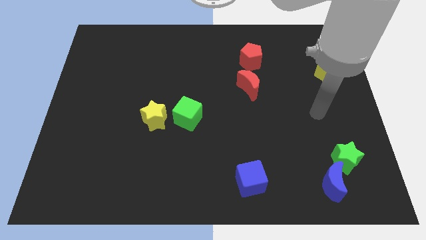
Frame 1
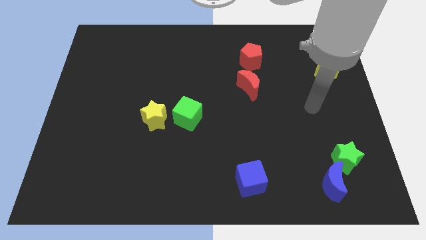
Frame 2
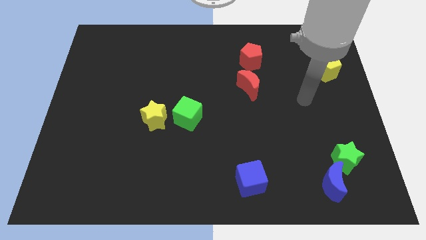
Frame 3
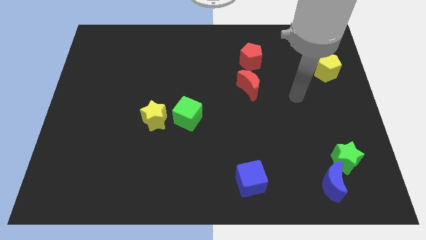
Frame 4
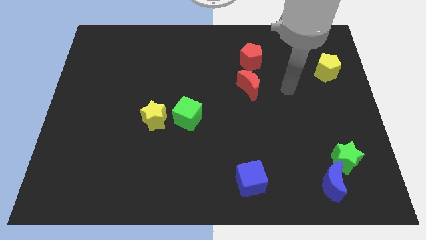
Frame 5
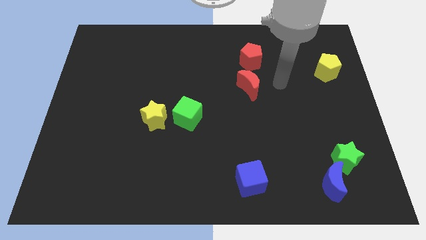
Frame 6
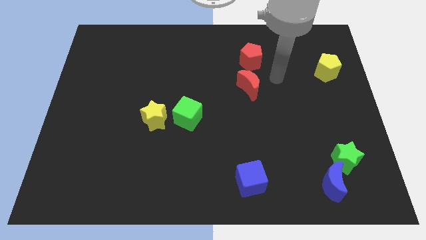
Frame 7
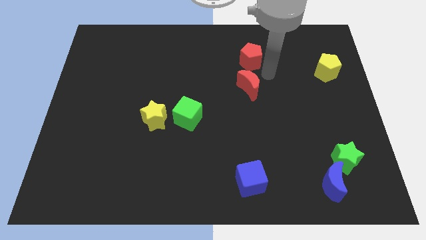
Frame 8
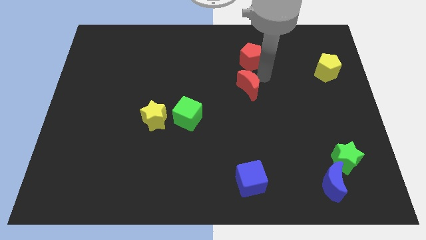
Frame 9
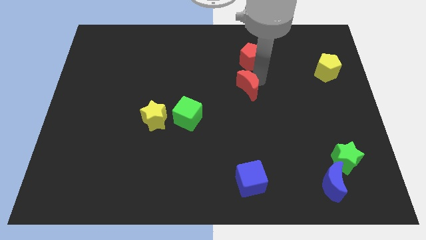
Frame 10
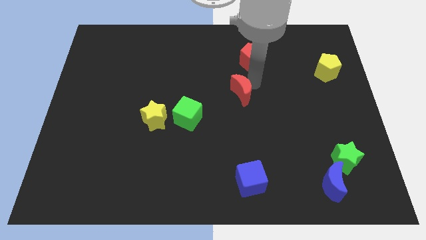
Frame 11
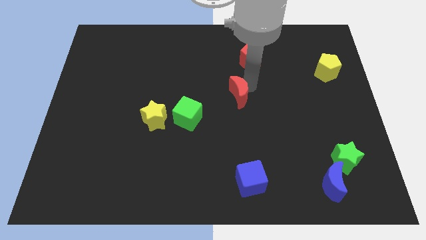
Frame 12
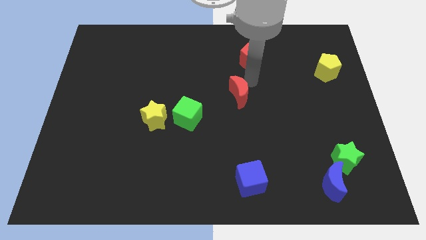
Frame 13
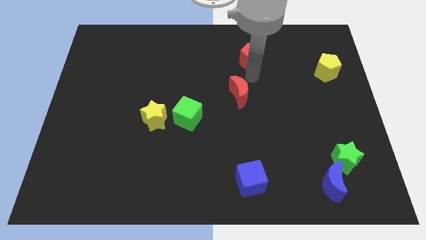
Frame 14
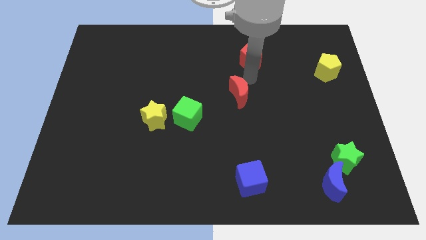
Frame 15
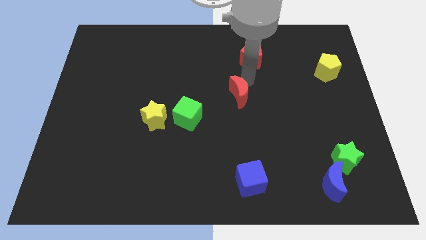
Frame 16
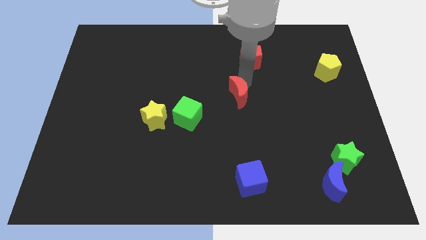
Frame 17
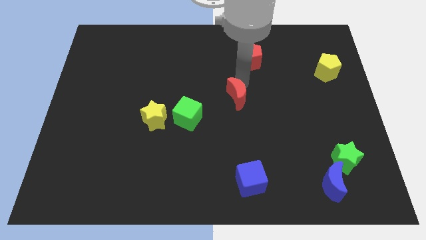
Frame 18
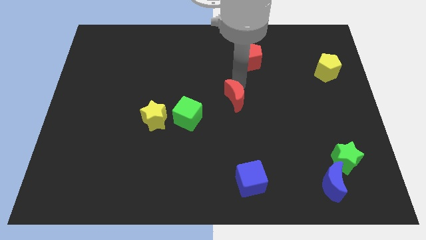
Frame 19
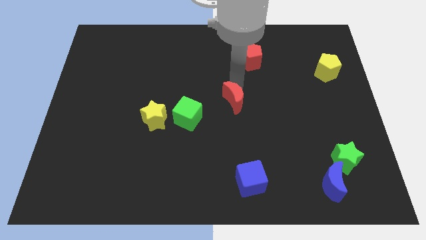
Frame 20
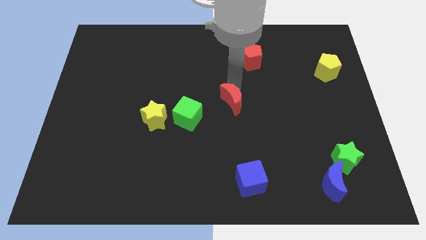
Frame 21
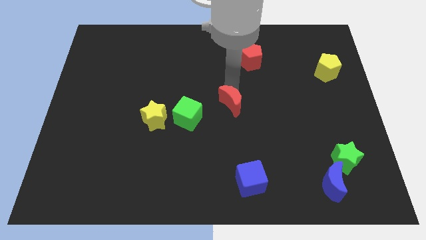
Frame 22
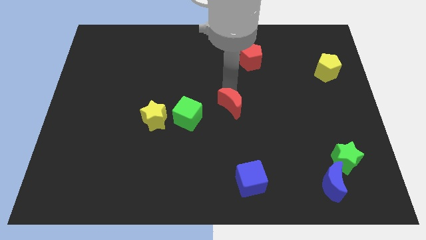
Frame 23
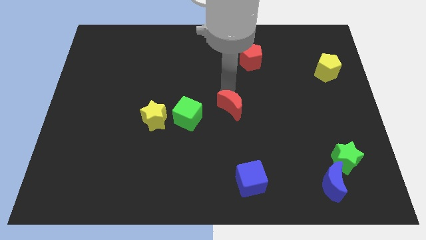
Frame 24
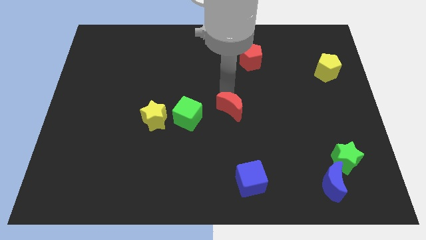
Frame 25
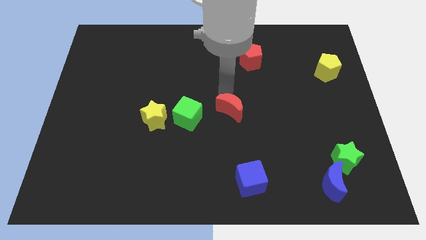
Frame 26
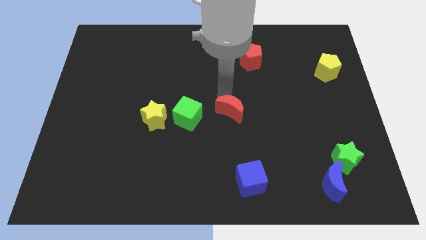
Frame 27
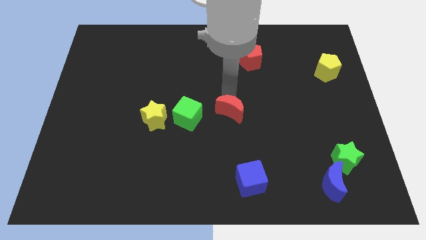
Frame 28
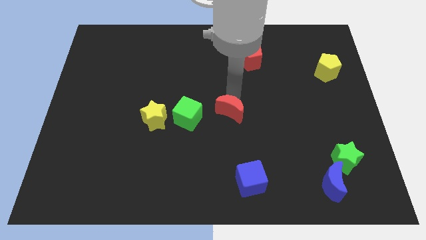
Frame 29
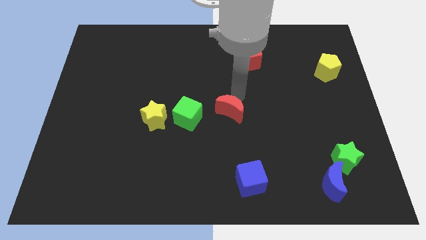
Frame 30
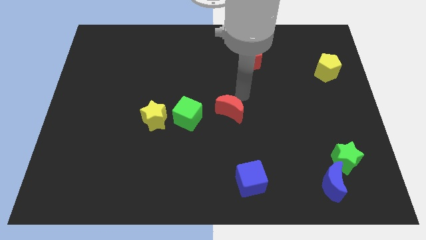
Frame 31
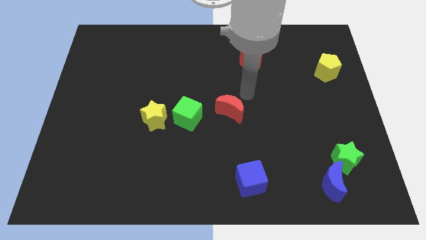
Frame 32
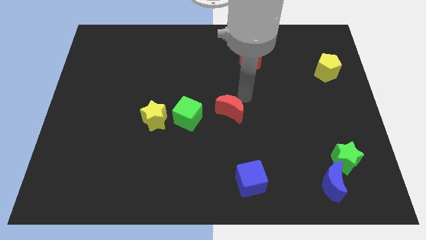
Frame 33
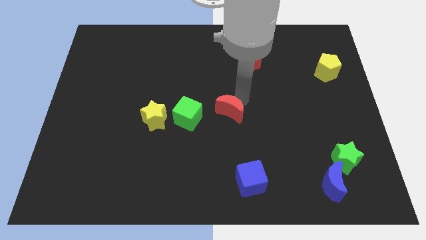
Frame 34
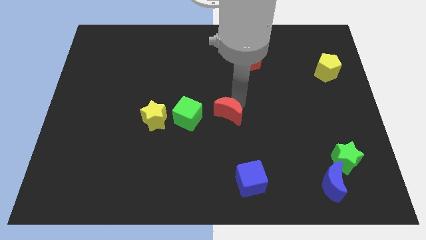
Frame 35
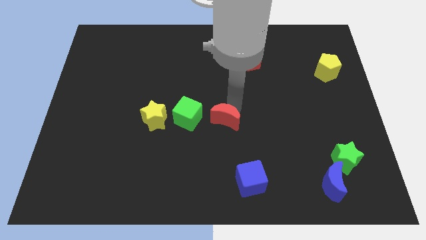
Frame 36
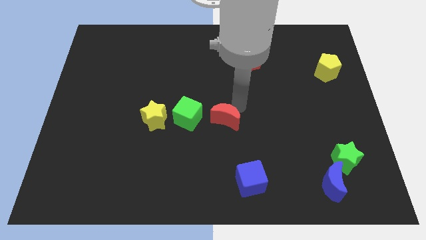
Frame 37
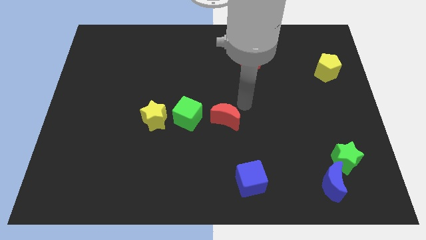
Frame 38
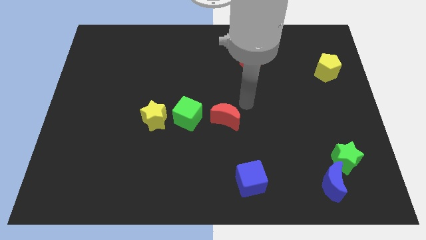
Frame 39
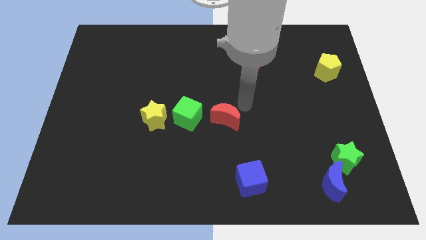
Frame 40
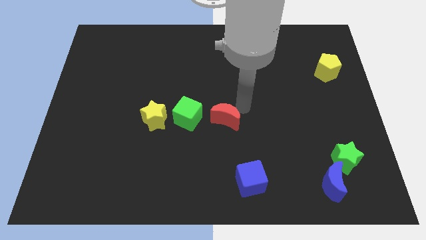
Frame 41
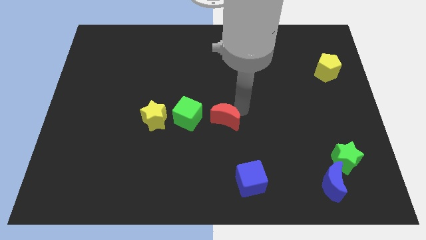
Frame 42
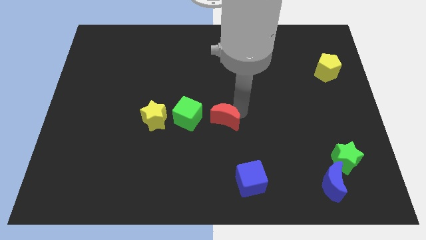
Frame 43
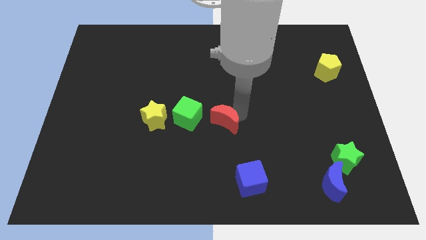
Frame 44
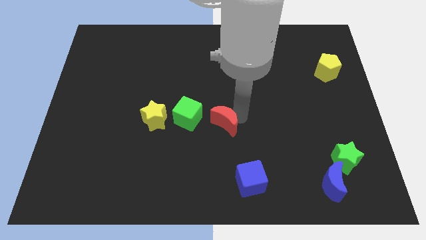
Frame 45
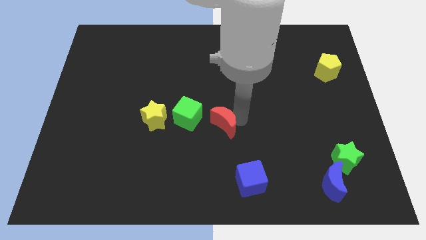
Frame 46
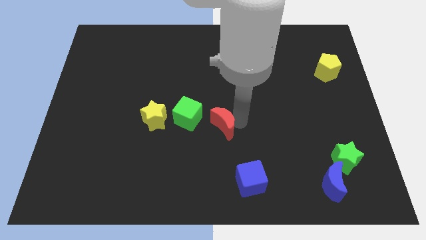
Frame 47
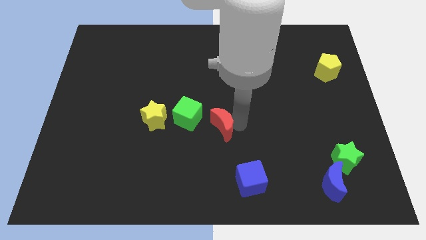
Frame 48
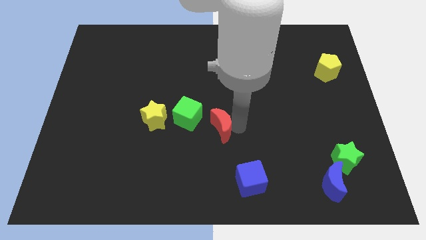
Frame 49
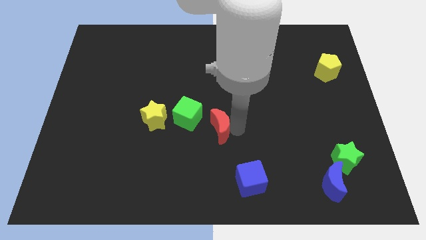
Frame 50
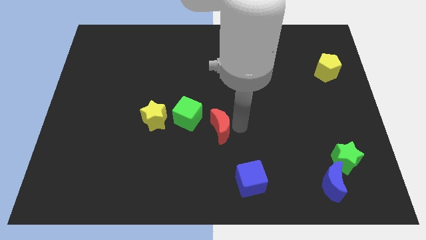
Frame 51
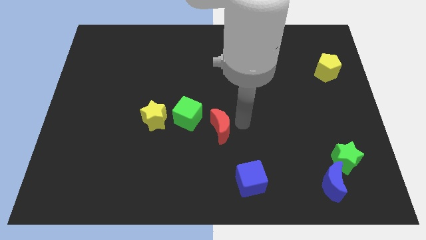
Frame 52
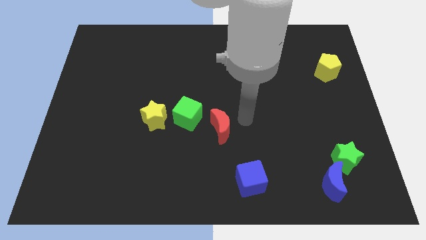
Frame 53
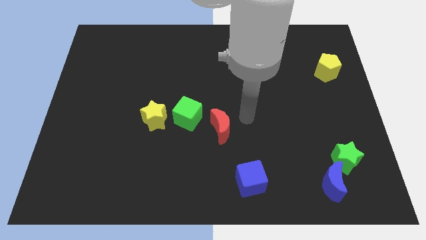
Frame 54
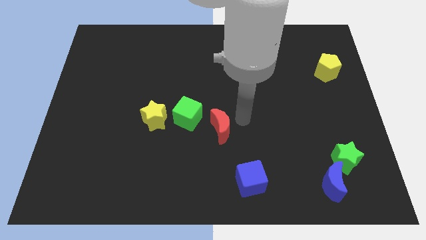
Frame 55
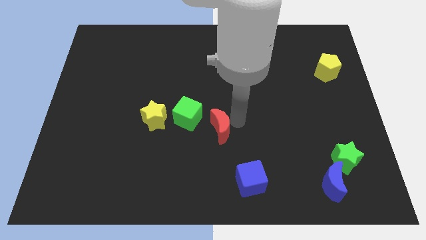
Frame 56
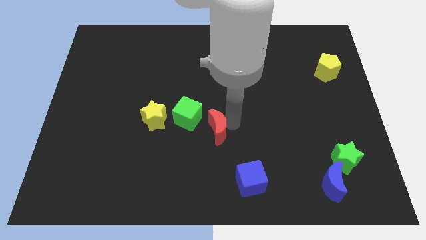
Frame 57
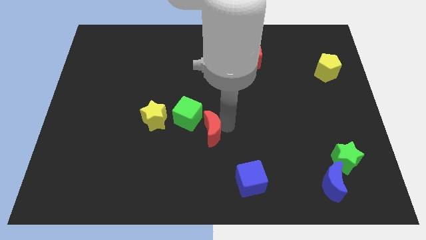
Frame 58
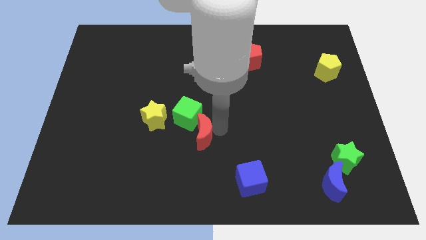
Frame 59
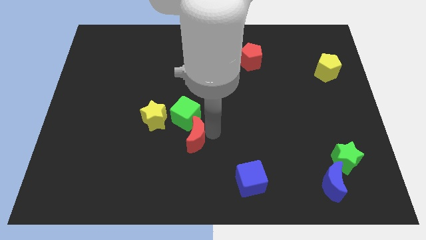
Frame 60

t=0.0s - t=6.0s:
push the red moon to the bottom right of the yellow star

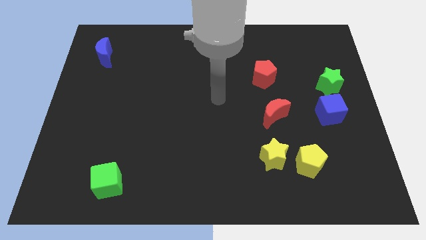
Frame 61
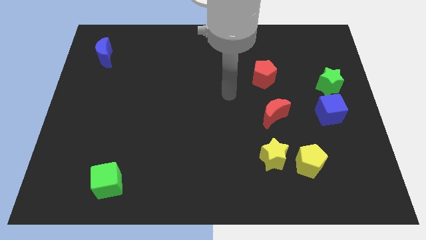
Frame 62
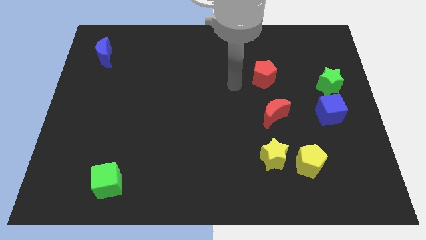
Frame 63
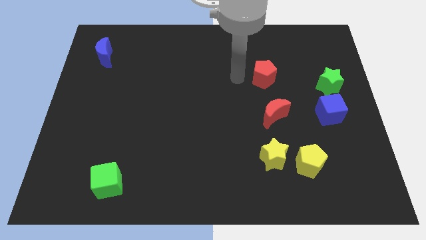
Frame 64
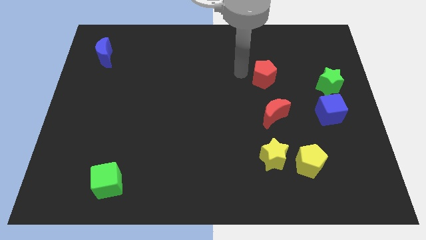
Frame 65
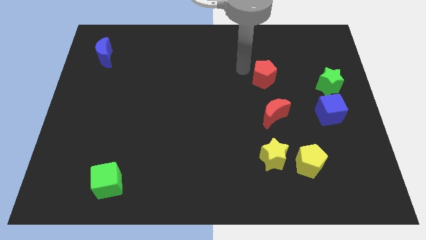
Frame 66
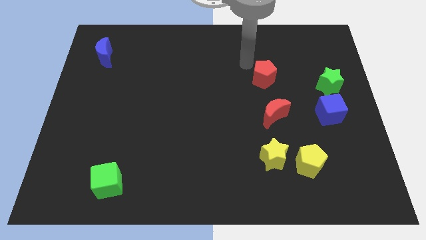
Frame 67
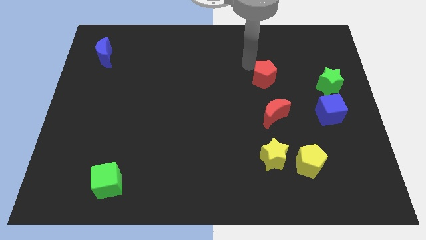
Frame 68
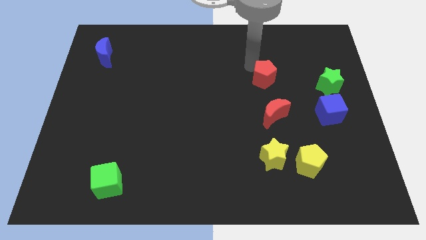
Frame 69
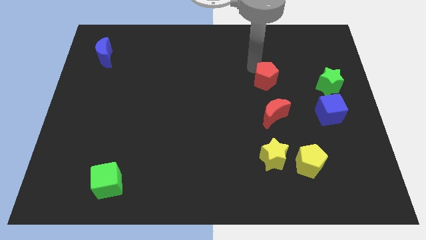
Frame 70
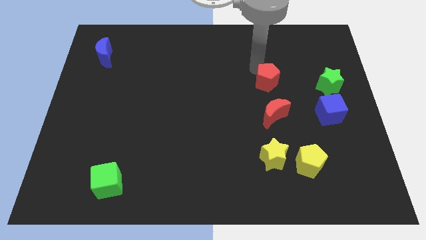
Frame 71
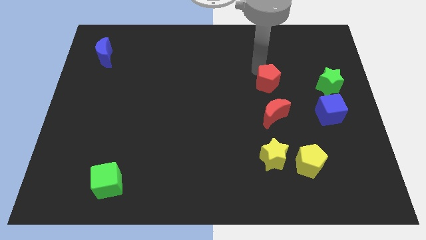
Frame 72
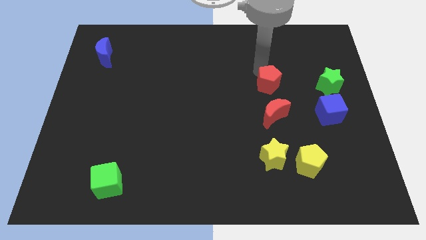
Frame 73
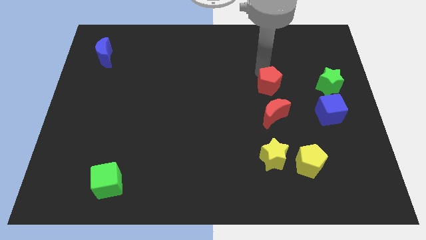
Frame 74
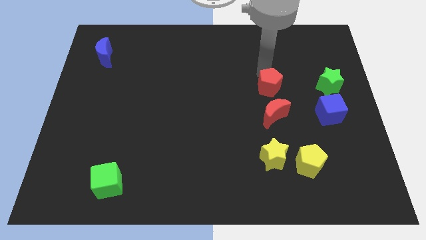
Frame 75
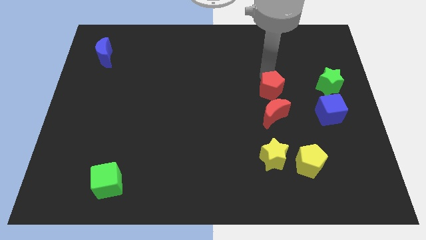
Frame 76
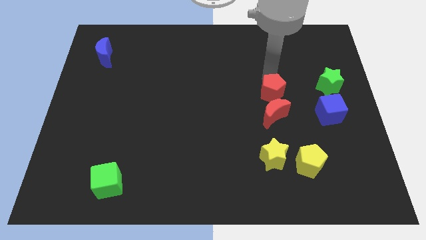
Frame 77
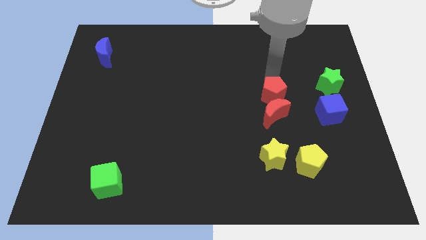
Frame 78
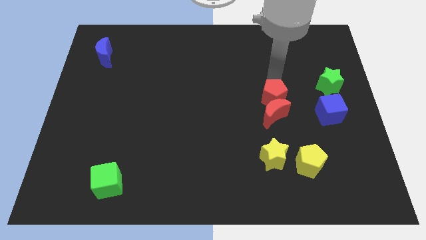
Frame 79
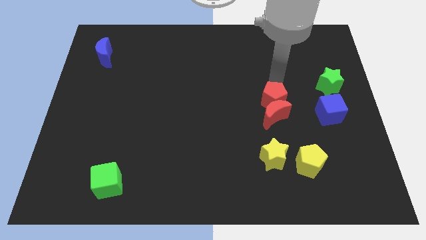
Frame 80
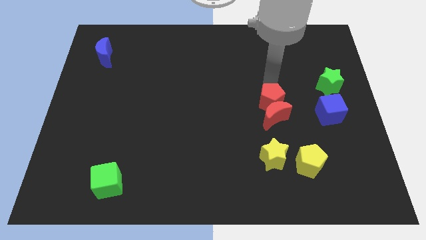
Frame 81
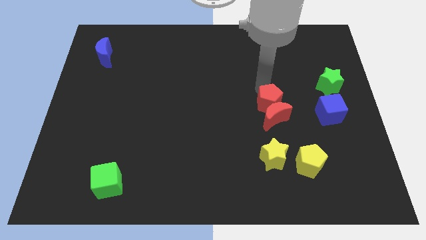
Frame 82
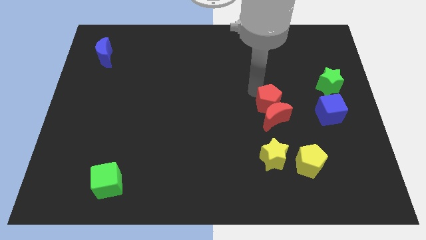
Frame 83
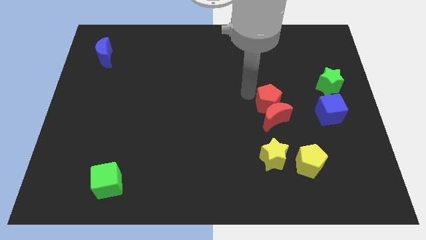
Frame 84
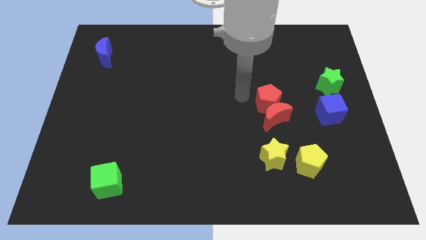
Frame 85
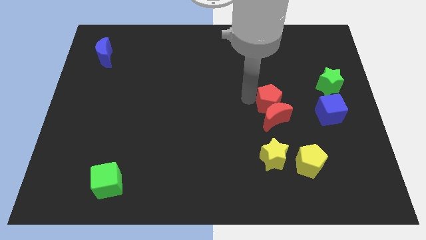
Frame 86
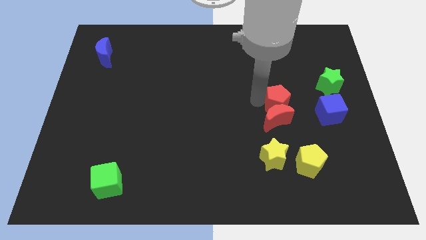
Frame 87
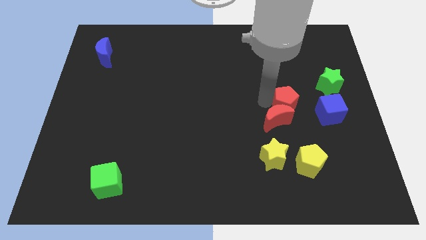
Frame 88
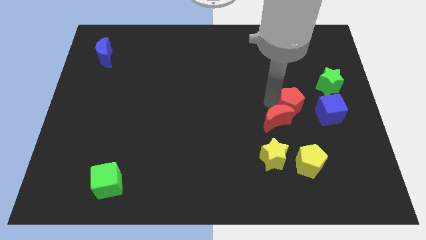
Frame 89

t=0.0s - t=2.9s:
push the red pentagon above the yellow pentagon
